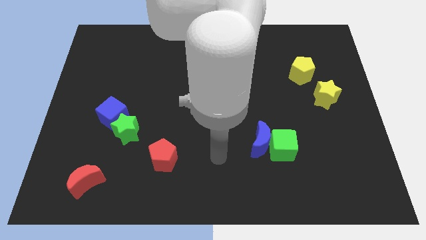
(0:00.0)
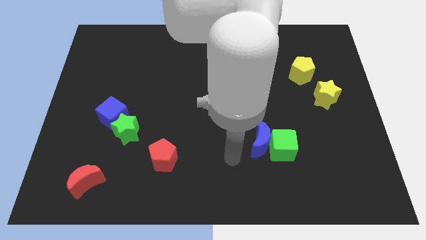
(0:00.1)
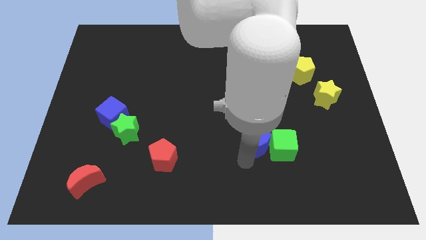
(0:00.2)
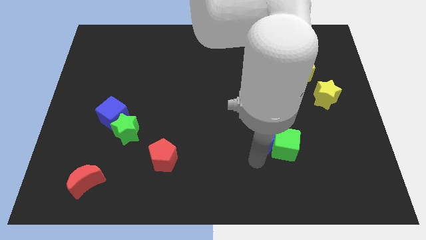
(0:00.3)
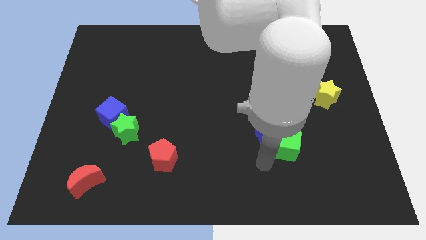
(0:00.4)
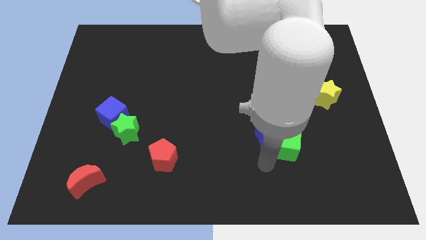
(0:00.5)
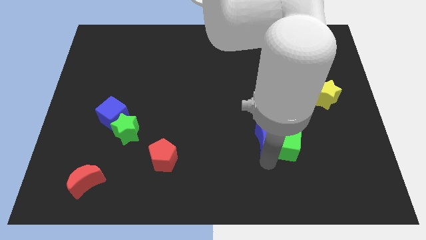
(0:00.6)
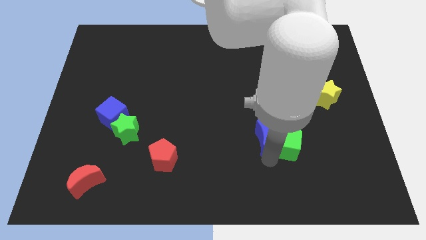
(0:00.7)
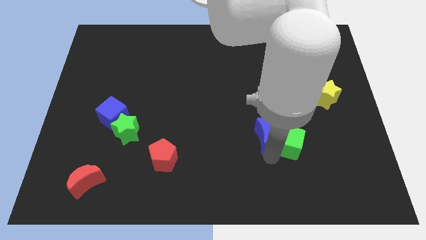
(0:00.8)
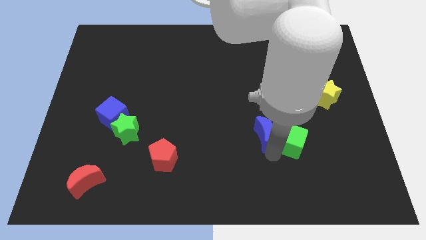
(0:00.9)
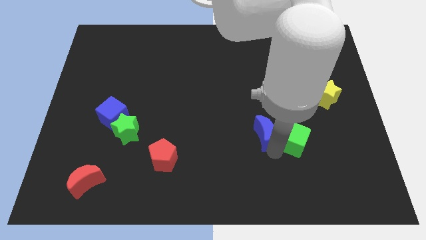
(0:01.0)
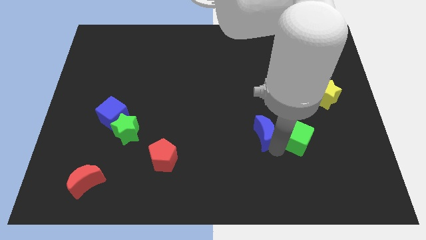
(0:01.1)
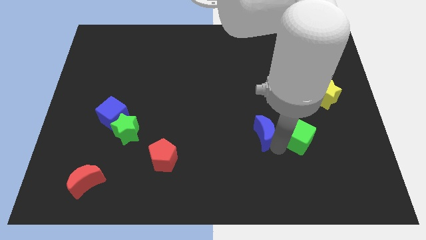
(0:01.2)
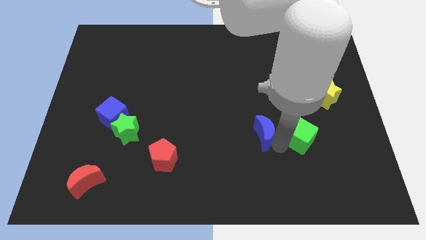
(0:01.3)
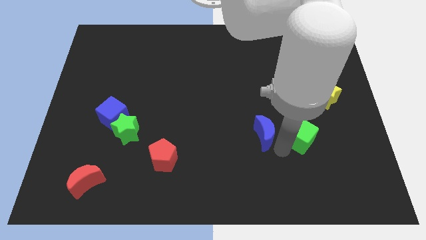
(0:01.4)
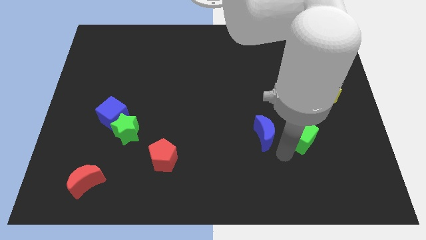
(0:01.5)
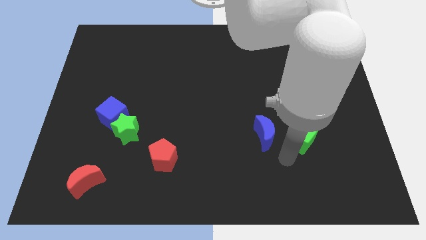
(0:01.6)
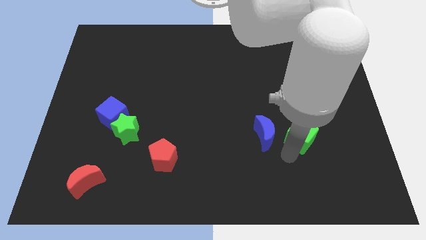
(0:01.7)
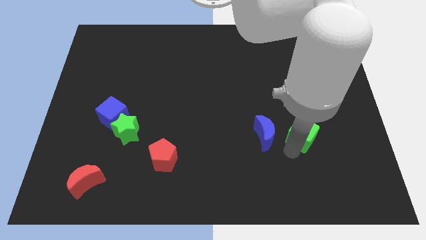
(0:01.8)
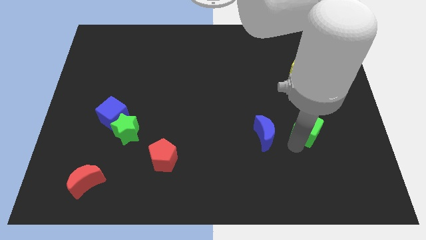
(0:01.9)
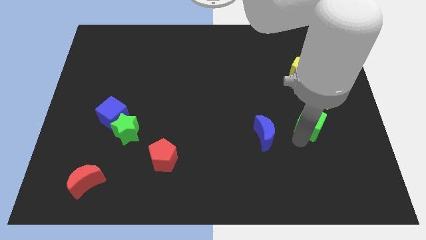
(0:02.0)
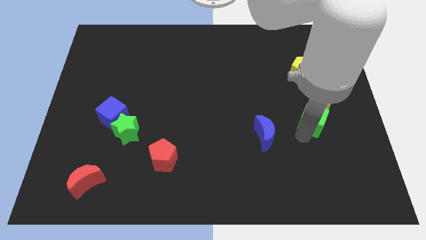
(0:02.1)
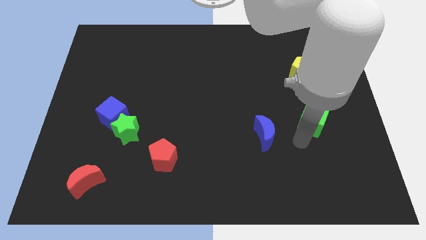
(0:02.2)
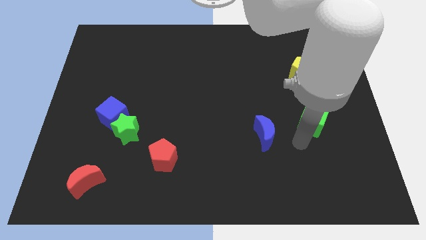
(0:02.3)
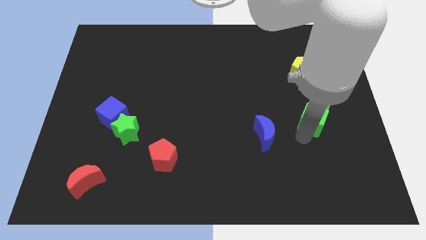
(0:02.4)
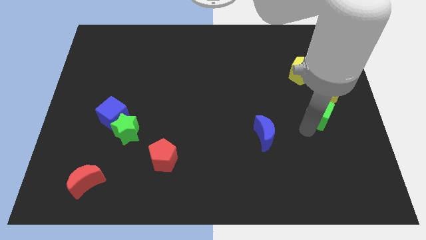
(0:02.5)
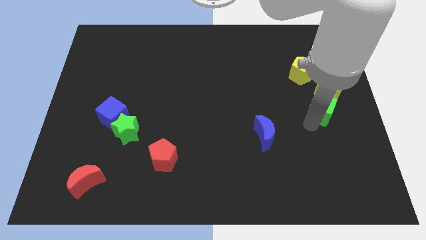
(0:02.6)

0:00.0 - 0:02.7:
slide the green cube close to the yellow star

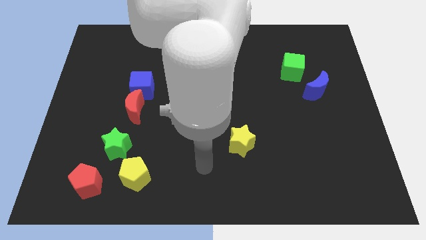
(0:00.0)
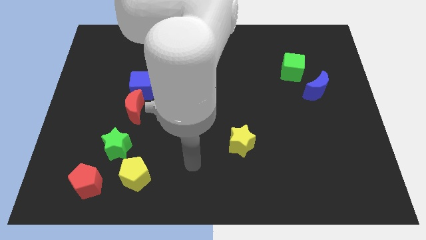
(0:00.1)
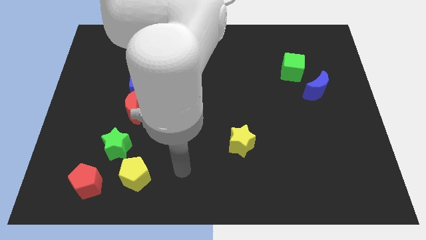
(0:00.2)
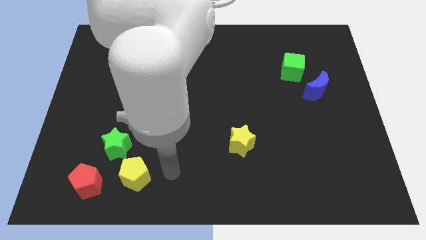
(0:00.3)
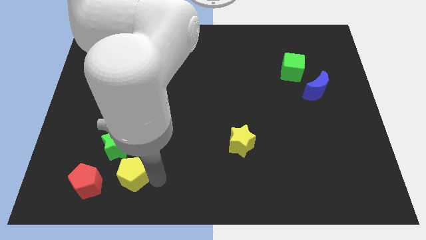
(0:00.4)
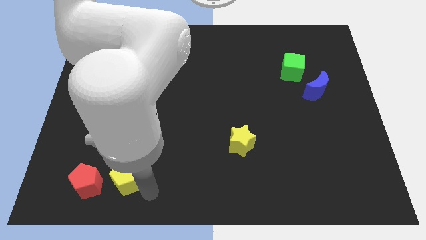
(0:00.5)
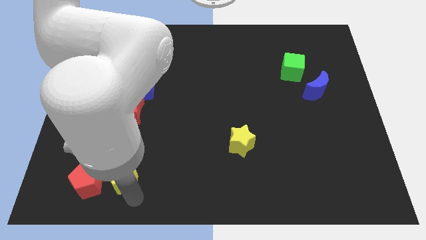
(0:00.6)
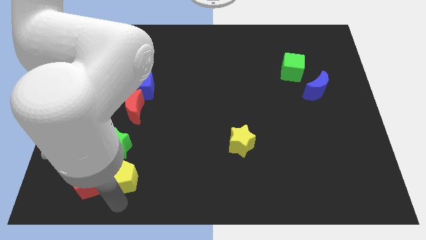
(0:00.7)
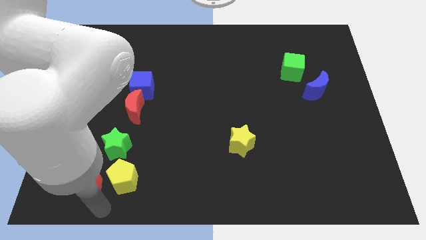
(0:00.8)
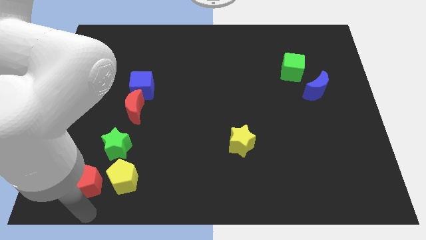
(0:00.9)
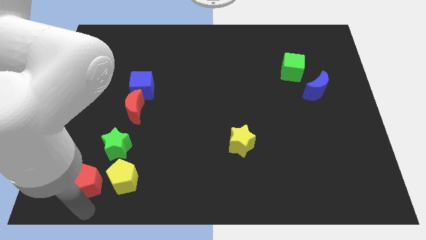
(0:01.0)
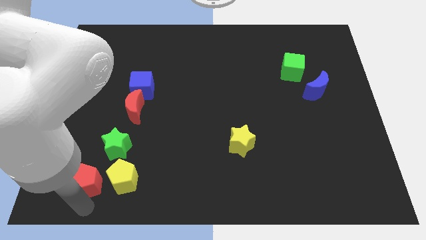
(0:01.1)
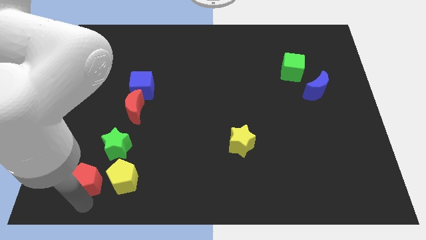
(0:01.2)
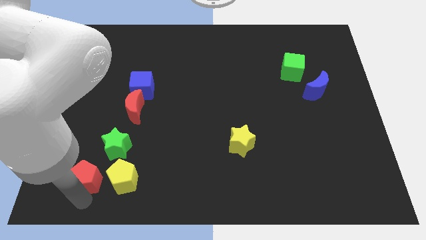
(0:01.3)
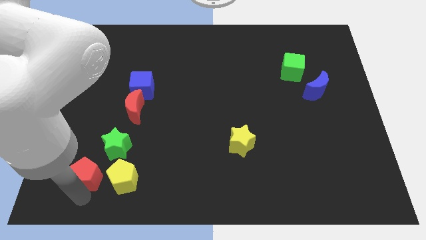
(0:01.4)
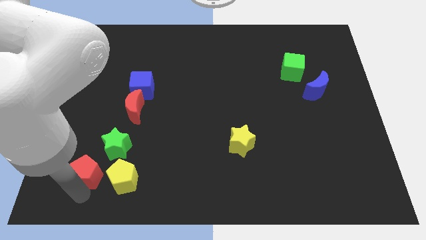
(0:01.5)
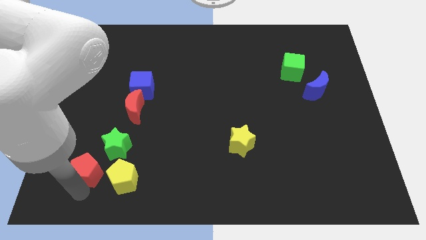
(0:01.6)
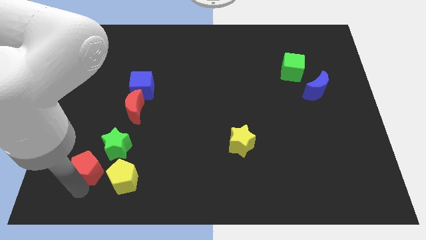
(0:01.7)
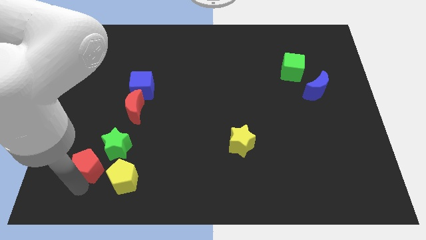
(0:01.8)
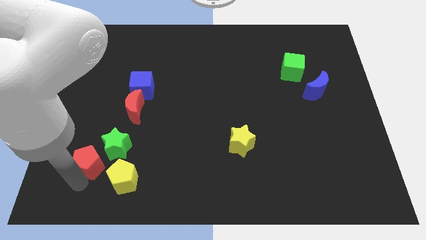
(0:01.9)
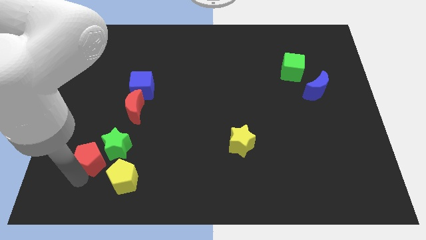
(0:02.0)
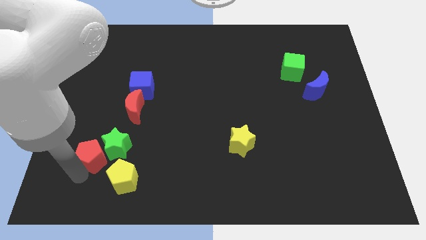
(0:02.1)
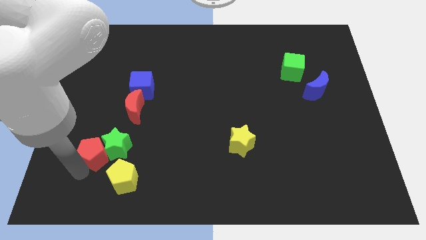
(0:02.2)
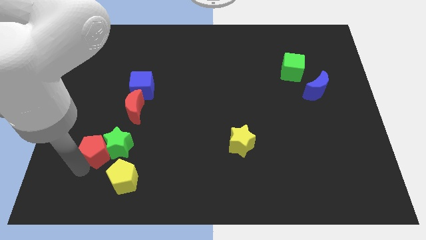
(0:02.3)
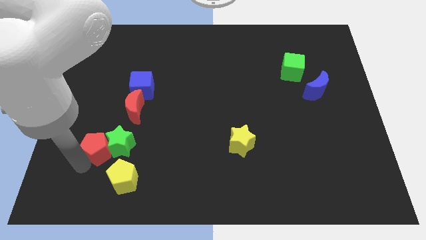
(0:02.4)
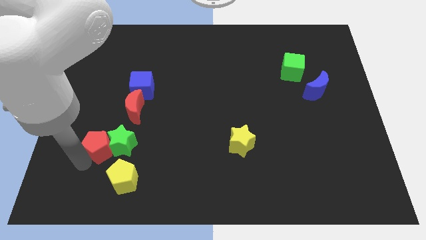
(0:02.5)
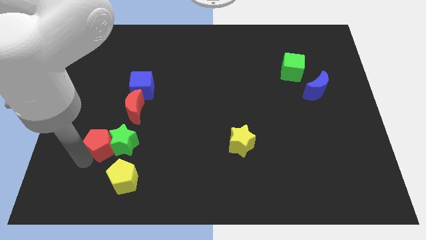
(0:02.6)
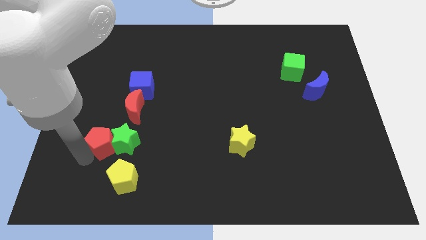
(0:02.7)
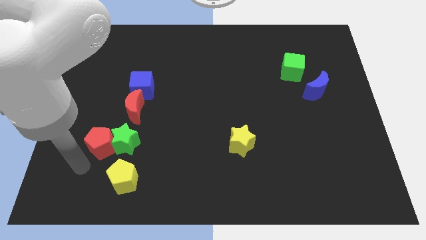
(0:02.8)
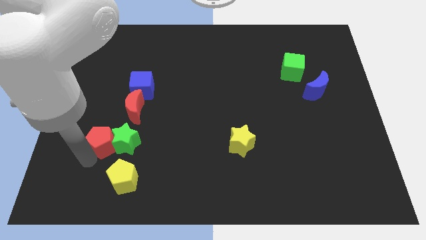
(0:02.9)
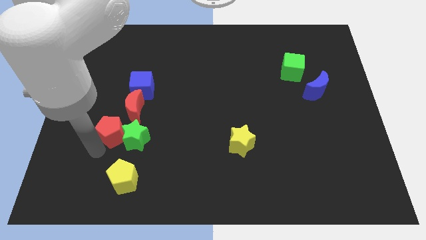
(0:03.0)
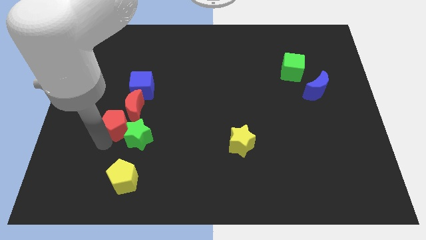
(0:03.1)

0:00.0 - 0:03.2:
slide the red pentagon close to the red moon

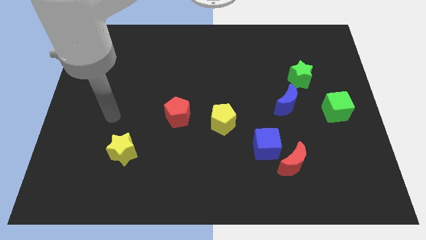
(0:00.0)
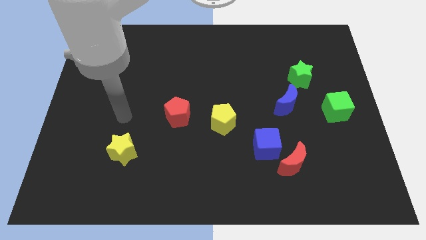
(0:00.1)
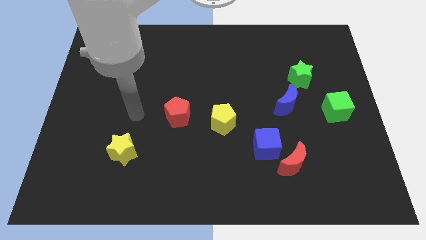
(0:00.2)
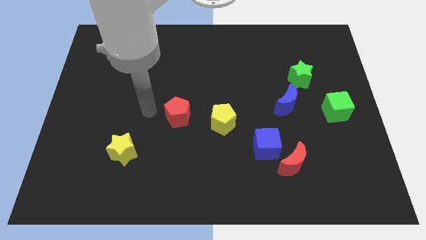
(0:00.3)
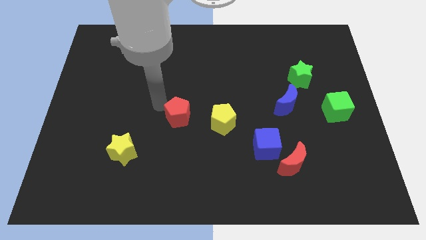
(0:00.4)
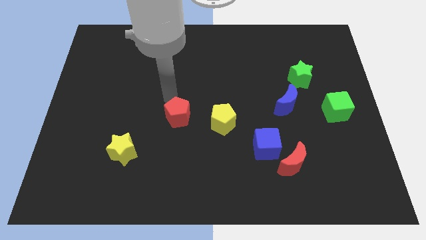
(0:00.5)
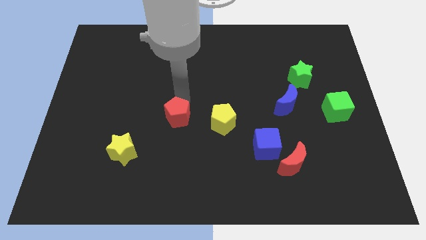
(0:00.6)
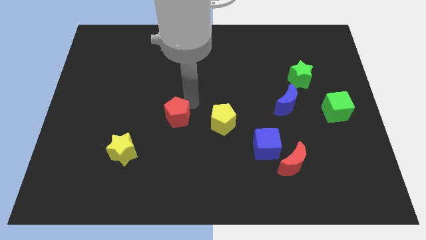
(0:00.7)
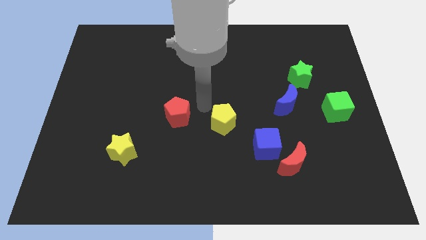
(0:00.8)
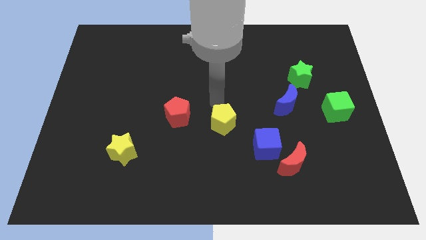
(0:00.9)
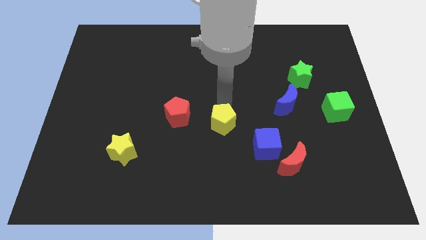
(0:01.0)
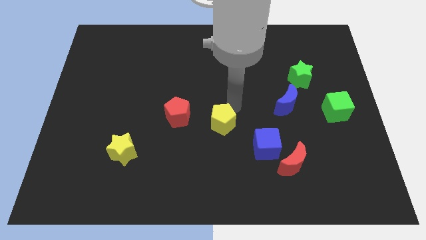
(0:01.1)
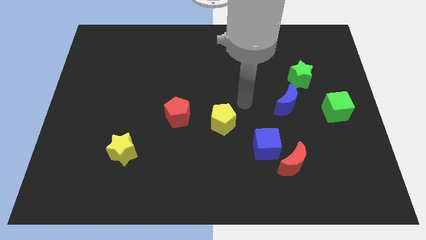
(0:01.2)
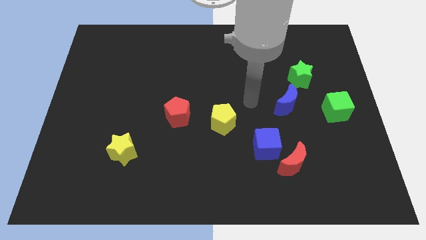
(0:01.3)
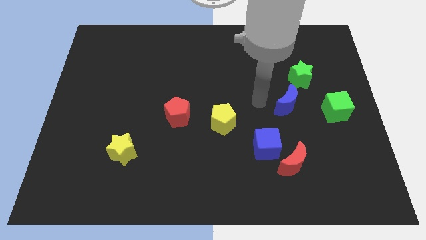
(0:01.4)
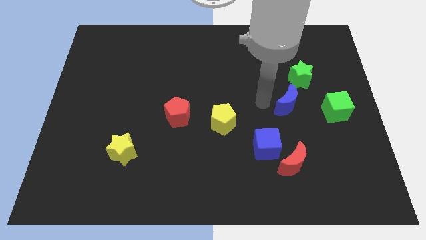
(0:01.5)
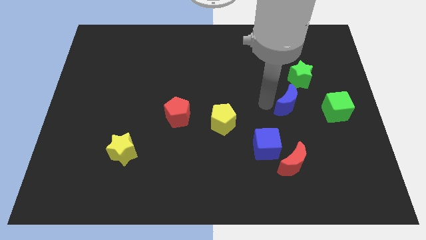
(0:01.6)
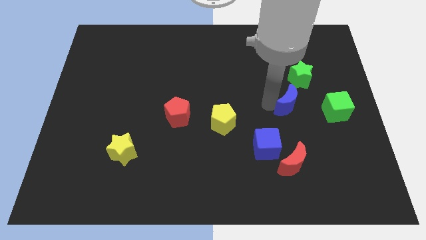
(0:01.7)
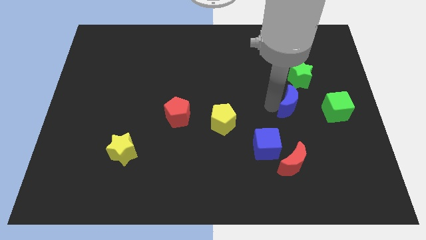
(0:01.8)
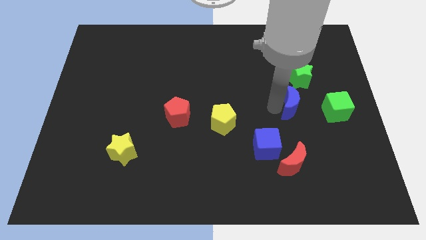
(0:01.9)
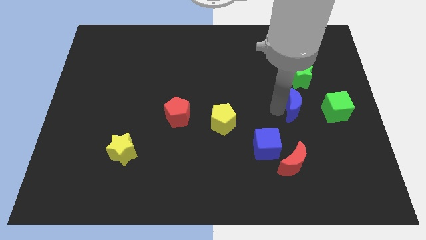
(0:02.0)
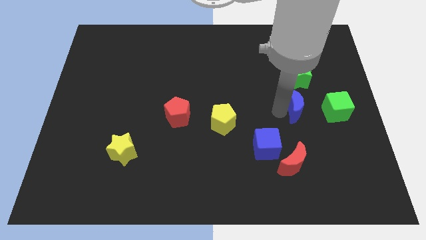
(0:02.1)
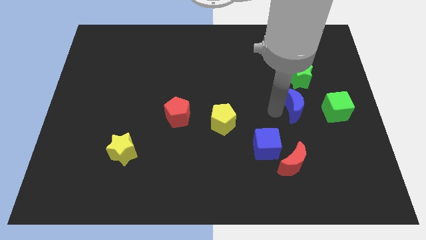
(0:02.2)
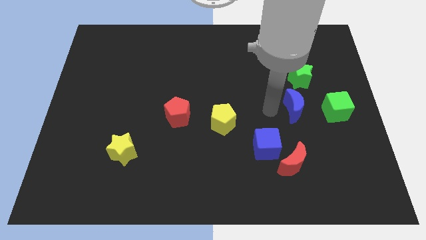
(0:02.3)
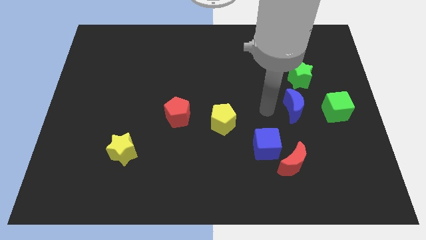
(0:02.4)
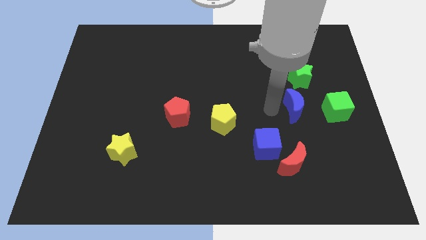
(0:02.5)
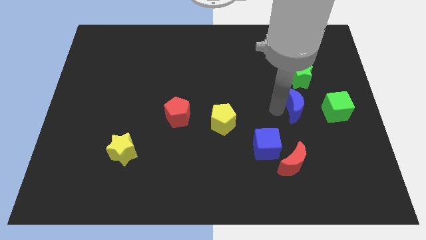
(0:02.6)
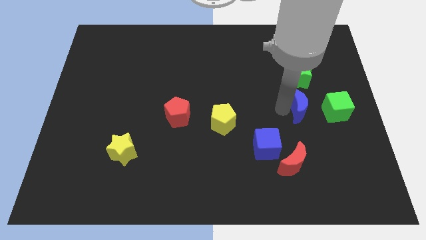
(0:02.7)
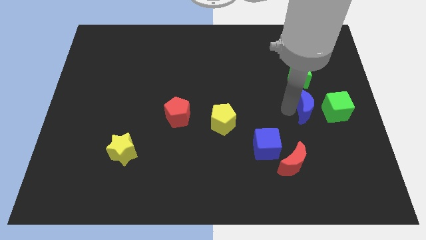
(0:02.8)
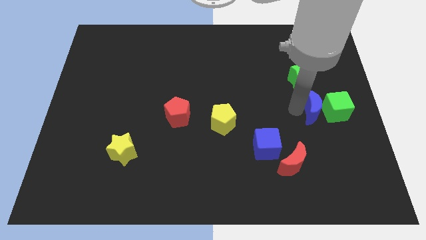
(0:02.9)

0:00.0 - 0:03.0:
push the blue moon towards the green cube
